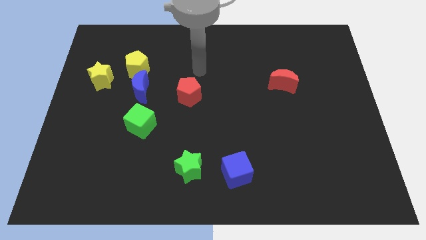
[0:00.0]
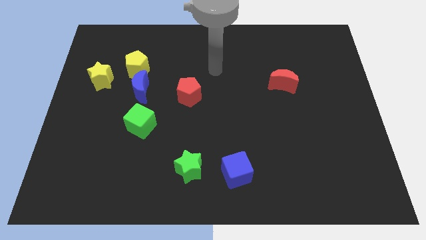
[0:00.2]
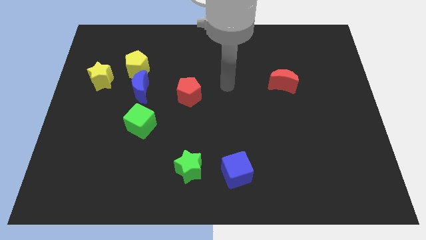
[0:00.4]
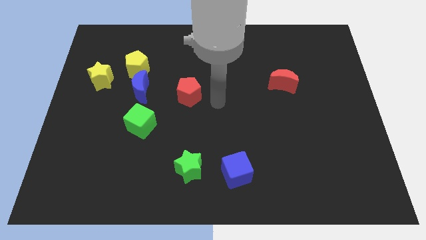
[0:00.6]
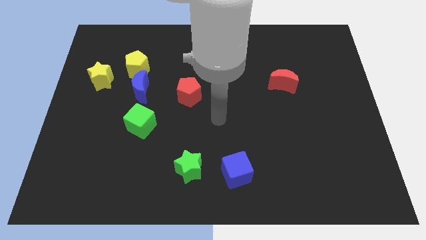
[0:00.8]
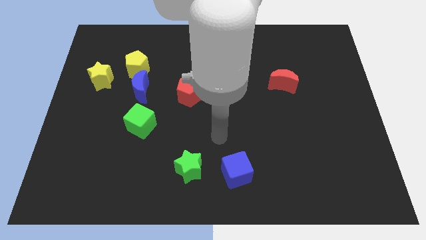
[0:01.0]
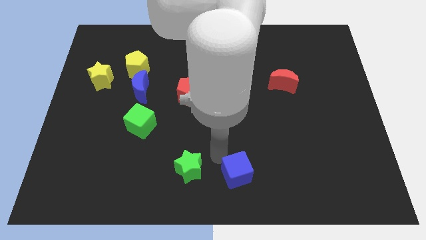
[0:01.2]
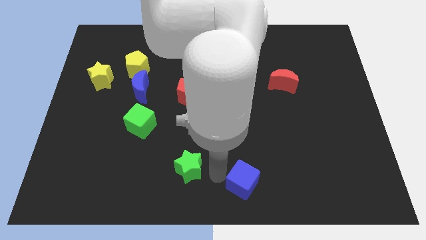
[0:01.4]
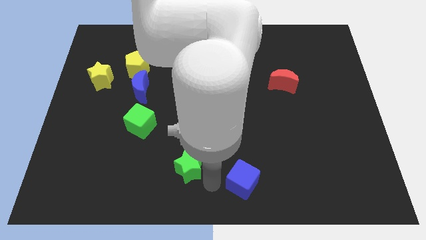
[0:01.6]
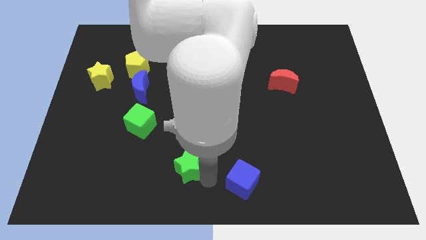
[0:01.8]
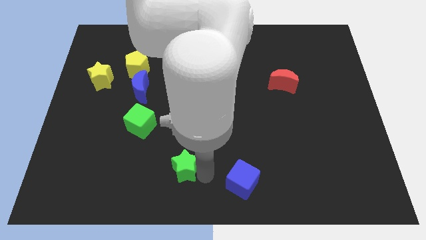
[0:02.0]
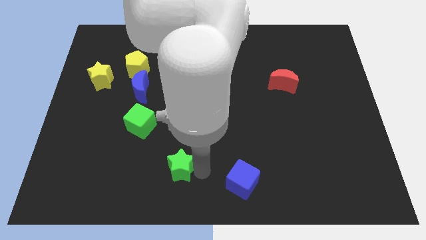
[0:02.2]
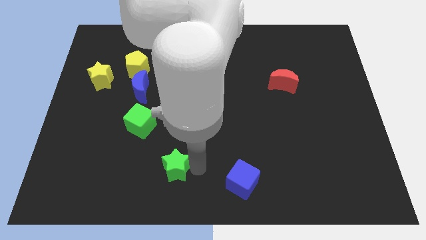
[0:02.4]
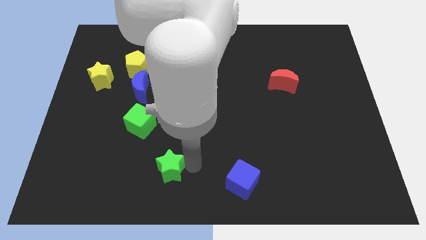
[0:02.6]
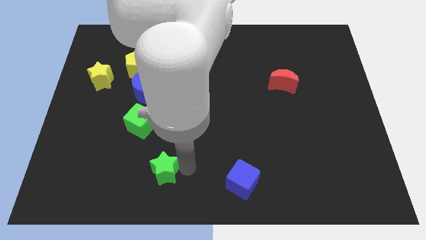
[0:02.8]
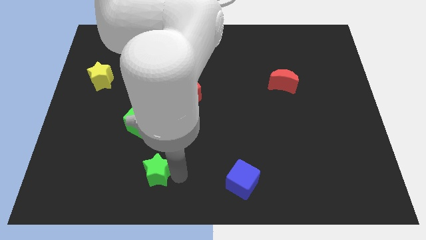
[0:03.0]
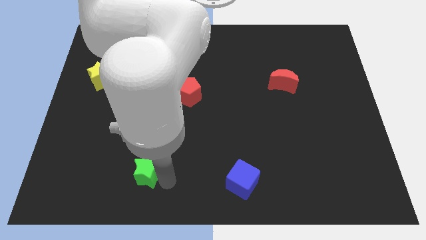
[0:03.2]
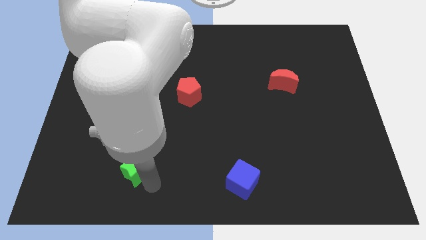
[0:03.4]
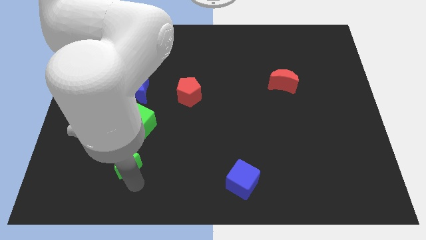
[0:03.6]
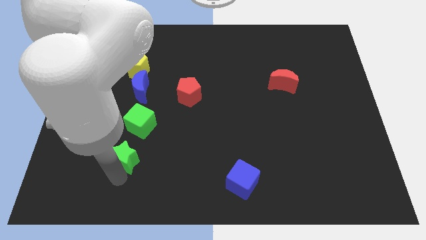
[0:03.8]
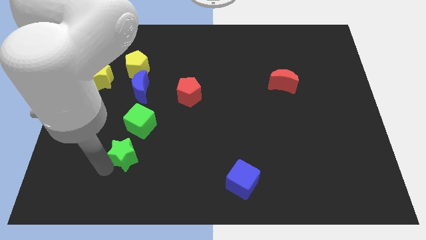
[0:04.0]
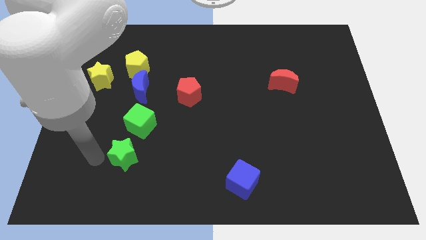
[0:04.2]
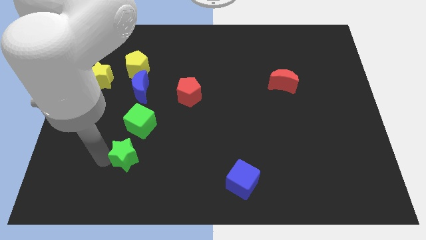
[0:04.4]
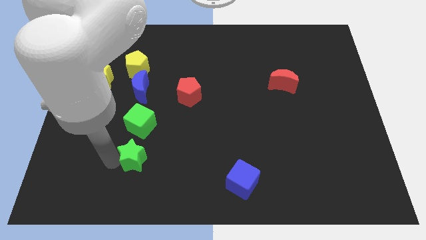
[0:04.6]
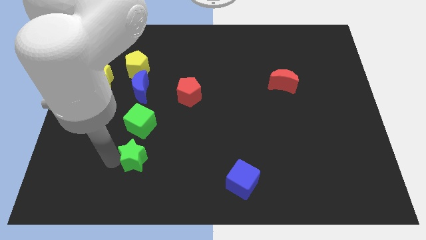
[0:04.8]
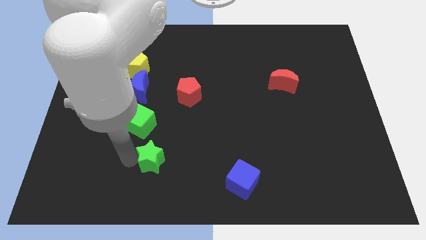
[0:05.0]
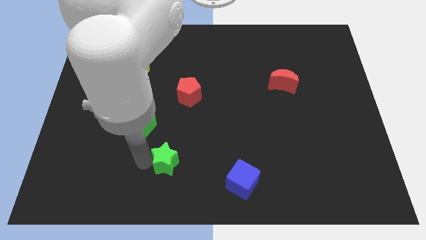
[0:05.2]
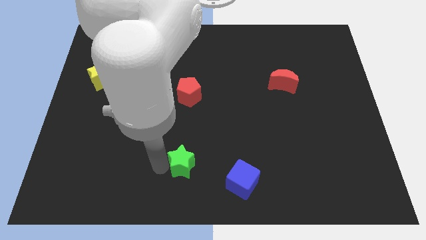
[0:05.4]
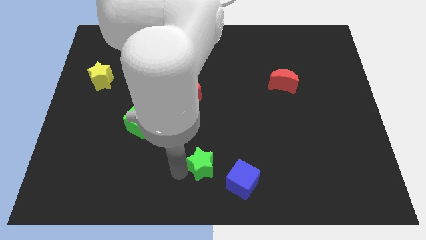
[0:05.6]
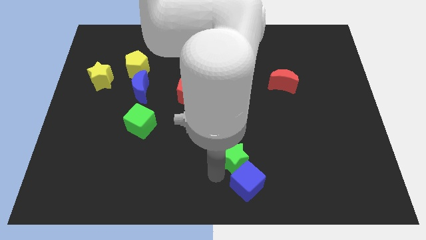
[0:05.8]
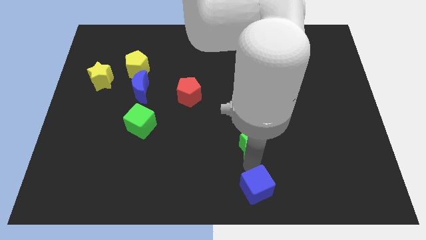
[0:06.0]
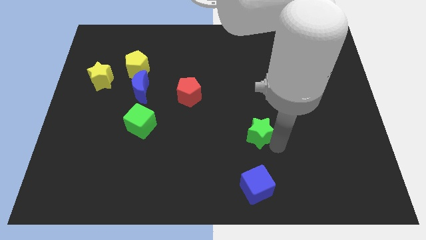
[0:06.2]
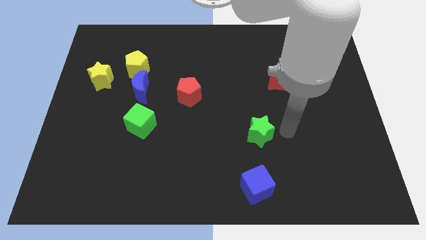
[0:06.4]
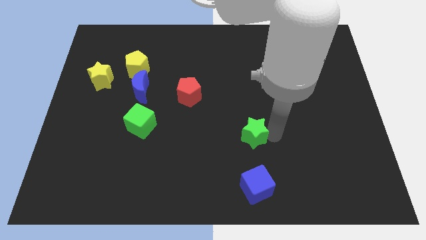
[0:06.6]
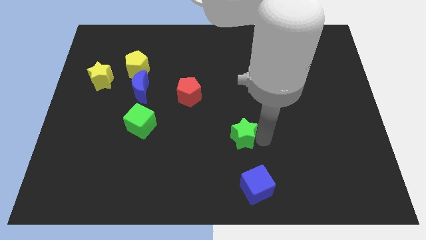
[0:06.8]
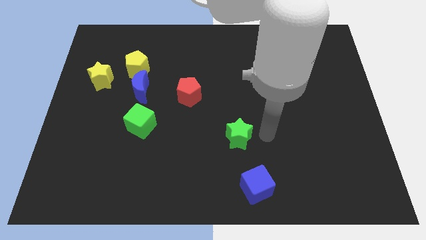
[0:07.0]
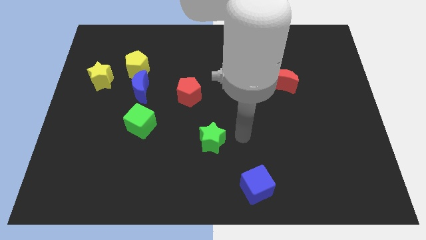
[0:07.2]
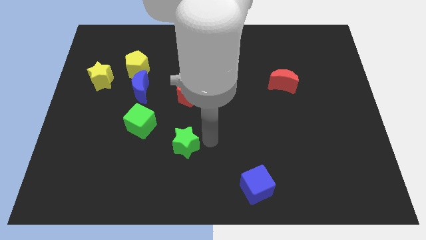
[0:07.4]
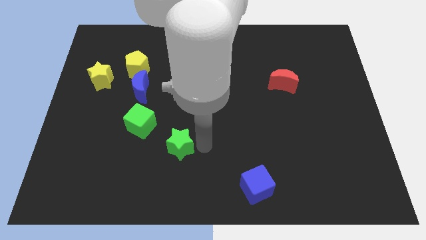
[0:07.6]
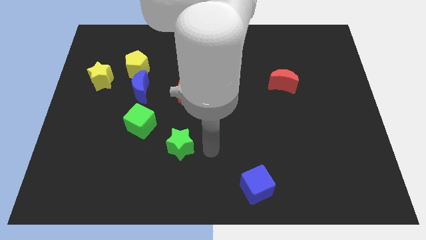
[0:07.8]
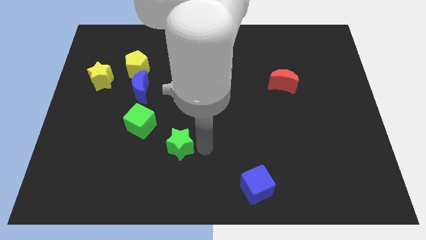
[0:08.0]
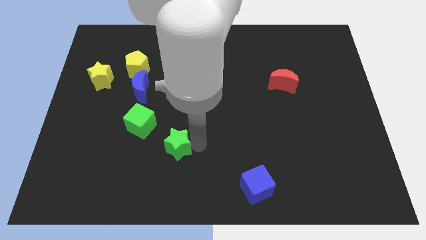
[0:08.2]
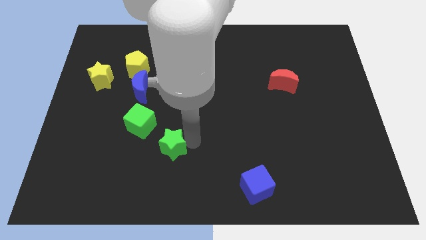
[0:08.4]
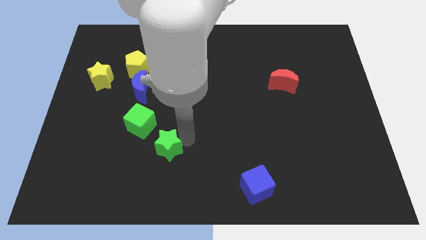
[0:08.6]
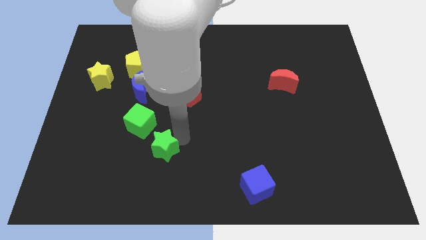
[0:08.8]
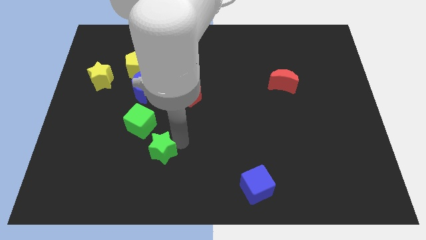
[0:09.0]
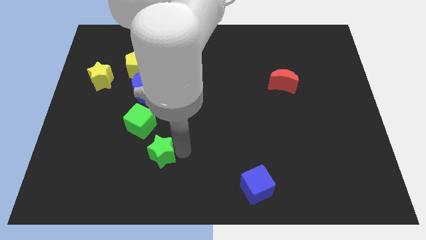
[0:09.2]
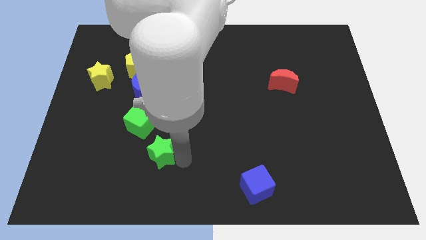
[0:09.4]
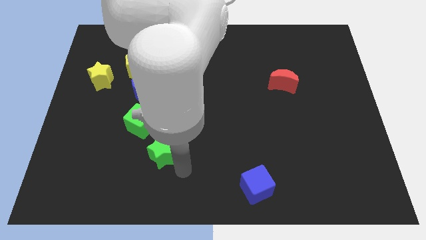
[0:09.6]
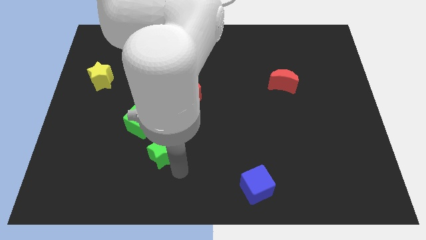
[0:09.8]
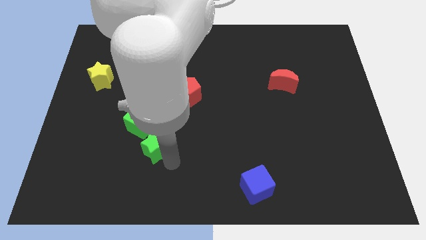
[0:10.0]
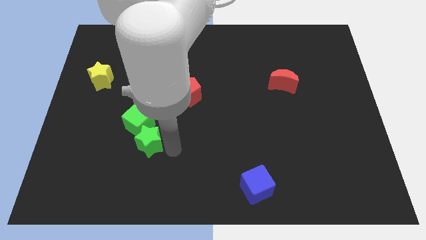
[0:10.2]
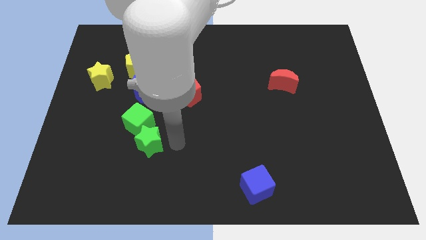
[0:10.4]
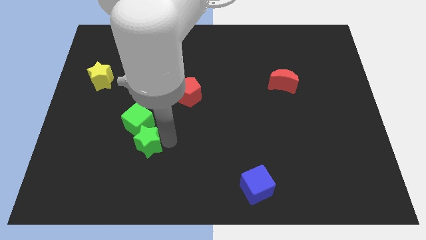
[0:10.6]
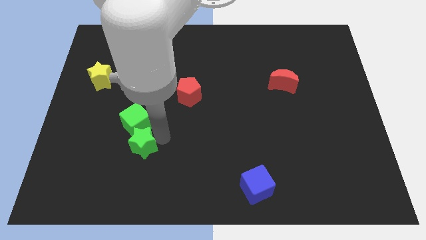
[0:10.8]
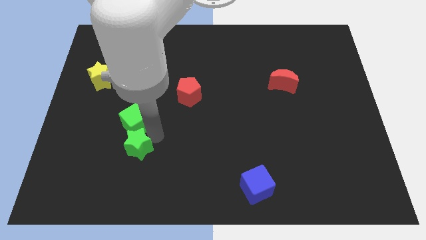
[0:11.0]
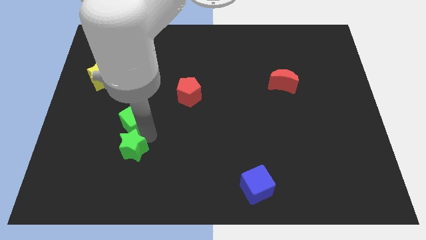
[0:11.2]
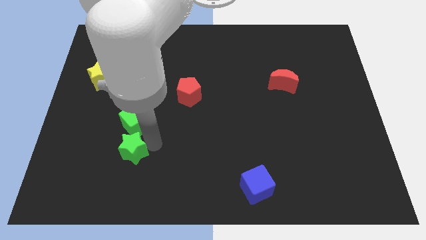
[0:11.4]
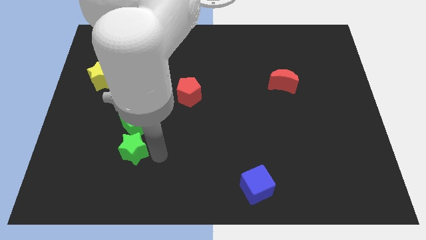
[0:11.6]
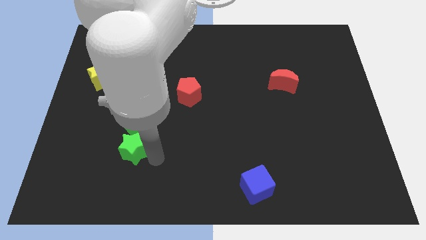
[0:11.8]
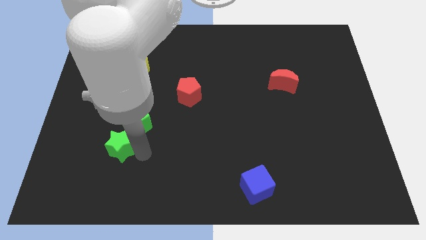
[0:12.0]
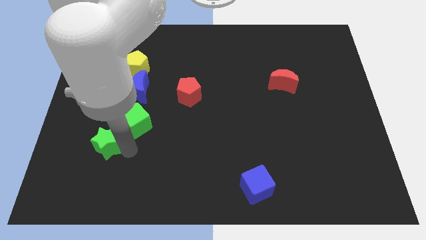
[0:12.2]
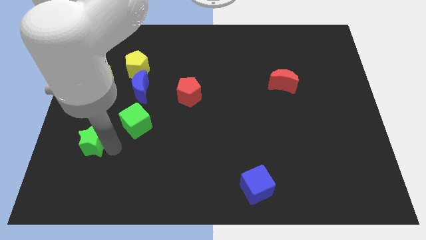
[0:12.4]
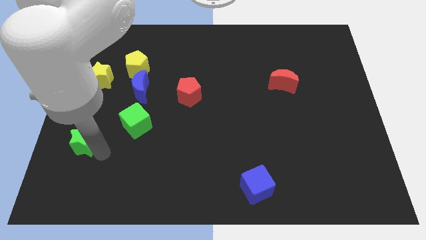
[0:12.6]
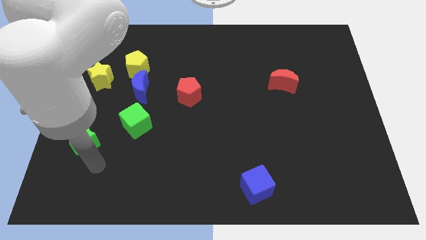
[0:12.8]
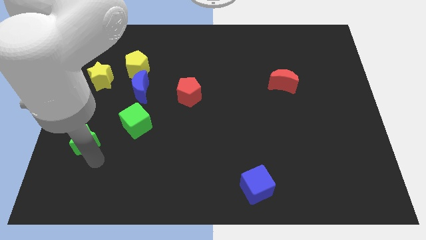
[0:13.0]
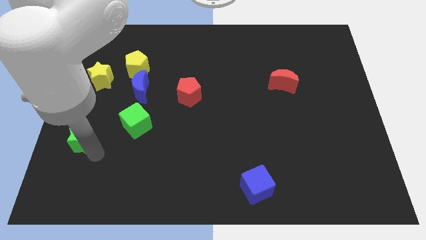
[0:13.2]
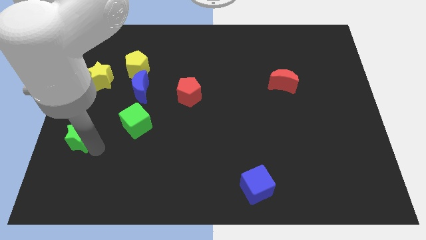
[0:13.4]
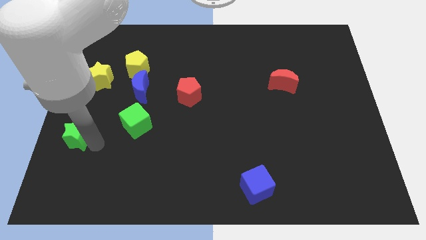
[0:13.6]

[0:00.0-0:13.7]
push the green star to the left side
